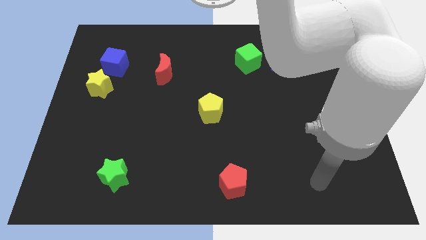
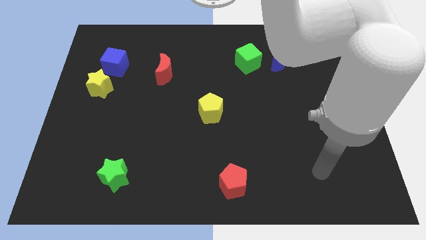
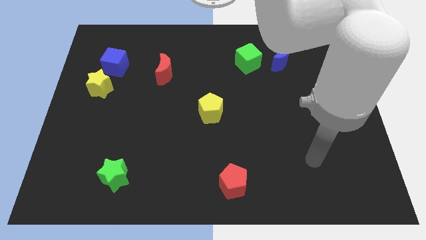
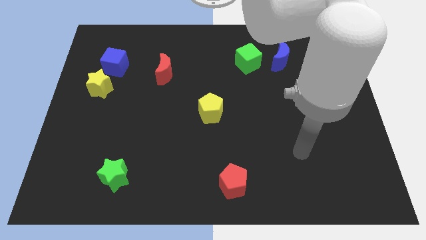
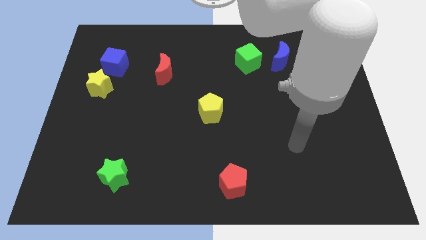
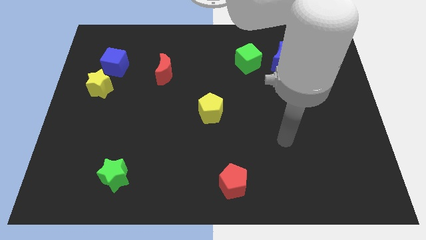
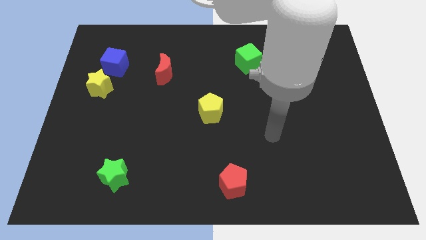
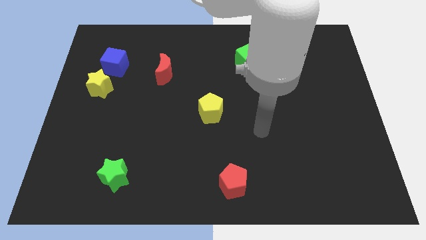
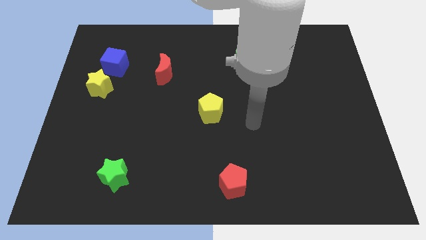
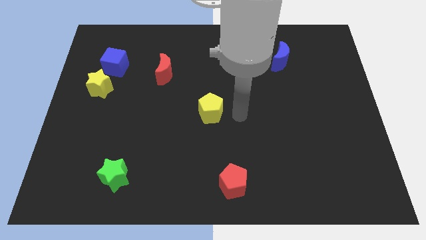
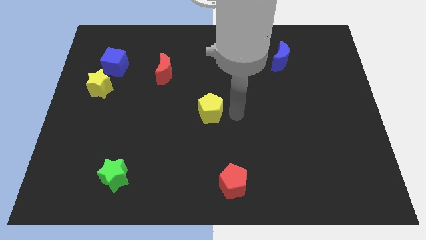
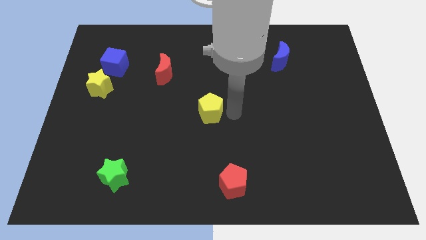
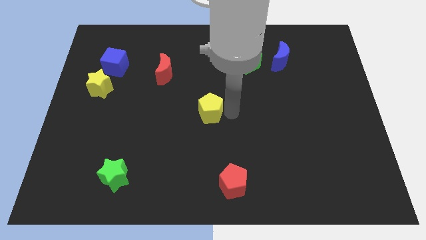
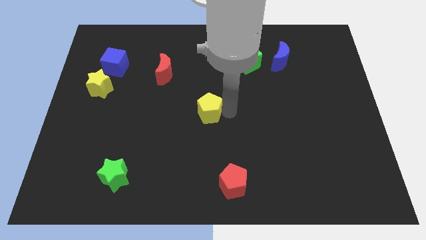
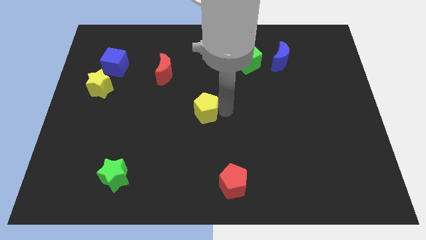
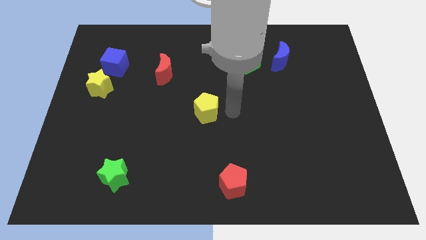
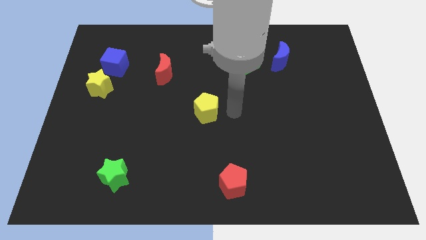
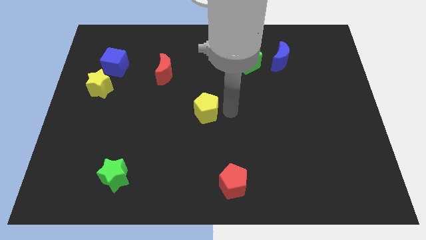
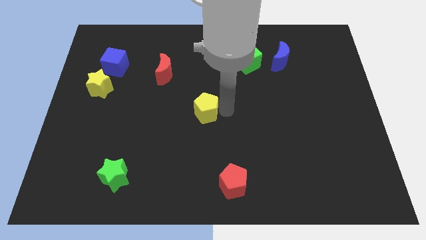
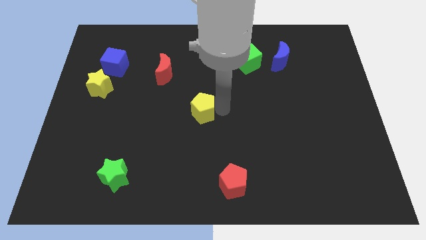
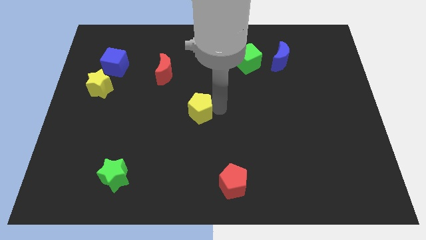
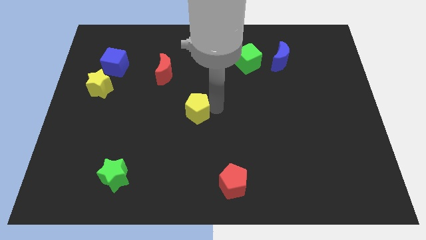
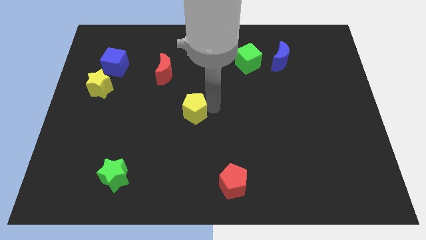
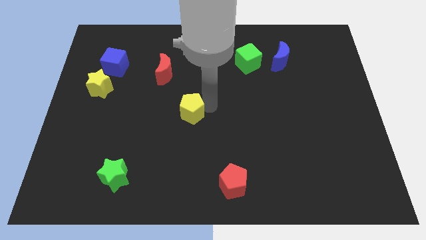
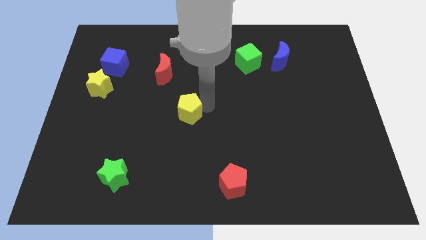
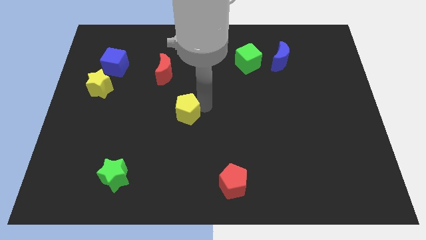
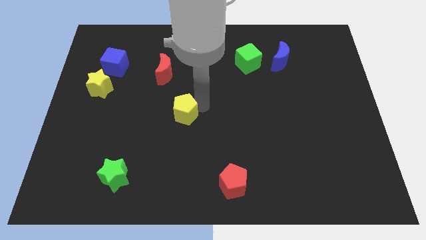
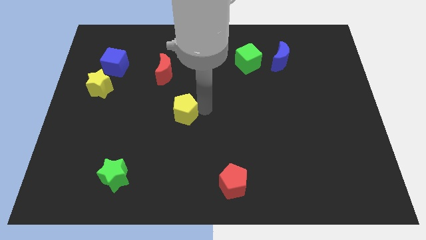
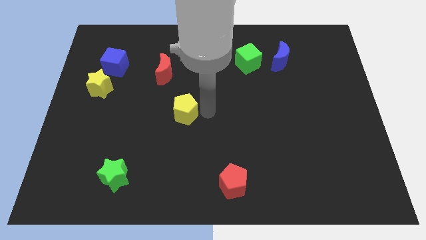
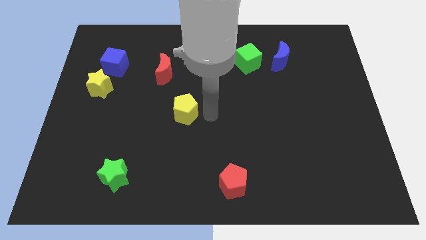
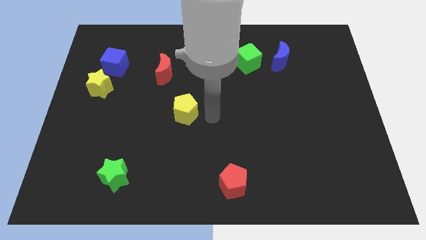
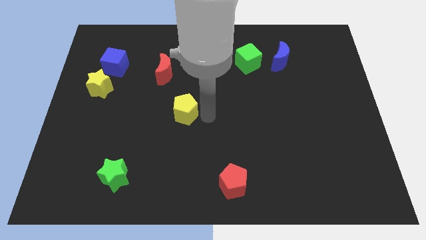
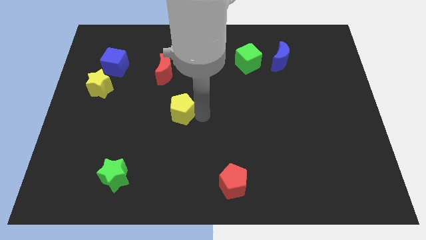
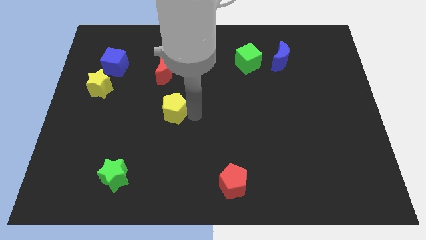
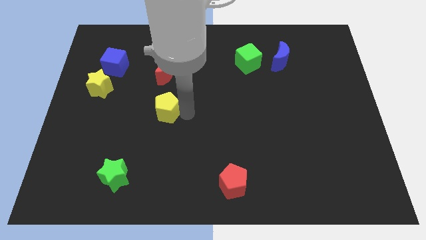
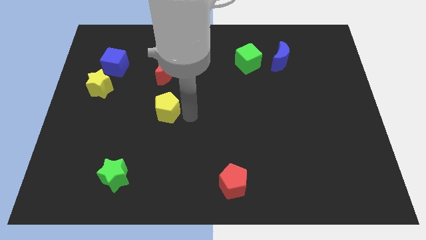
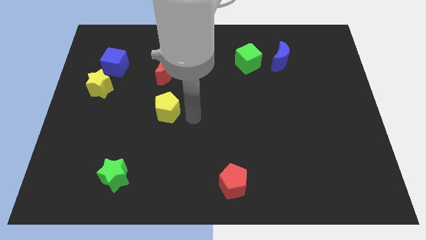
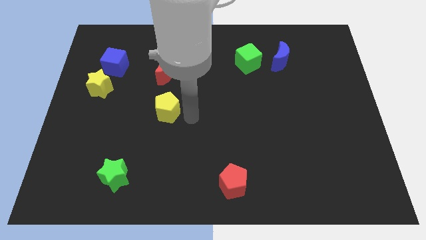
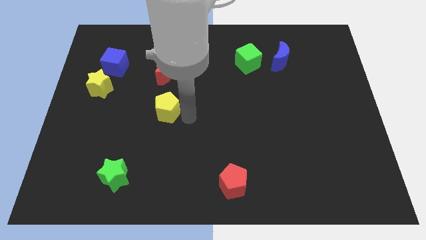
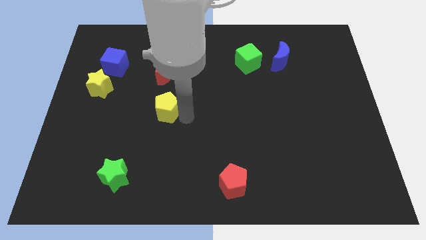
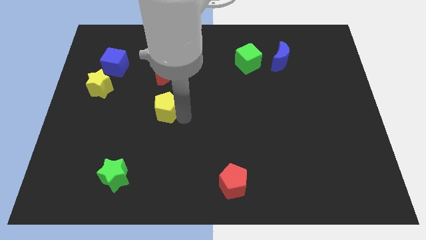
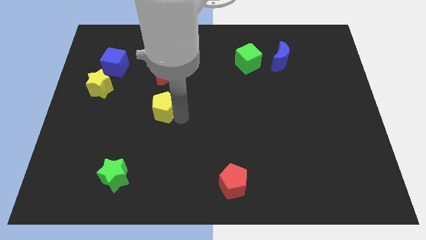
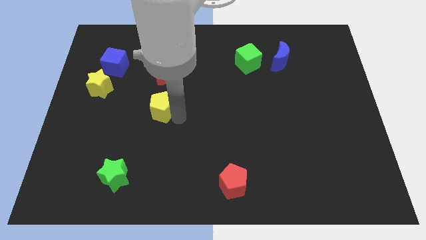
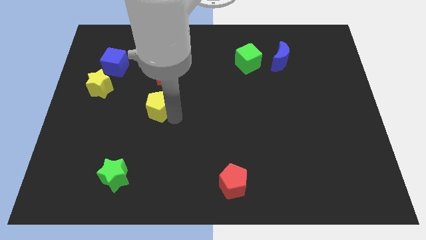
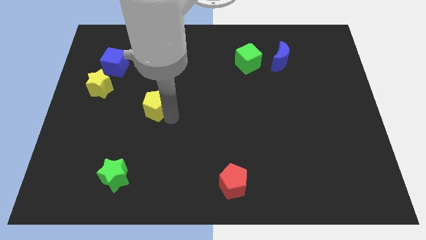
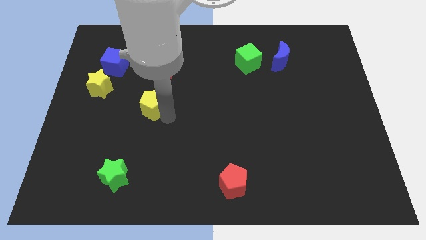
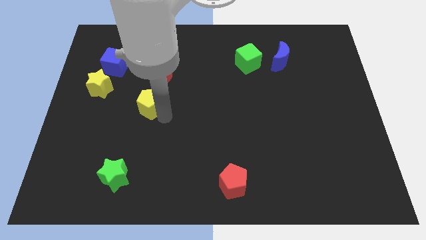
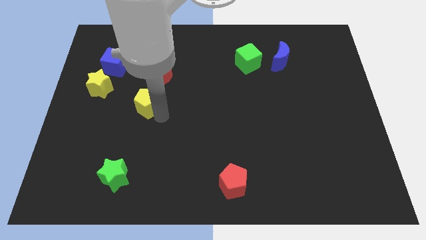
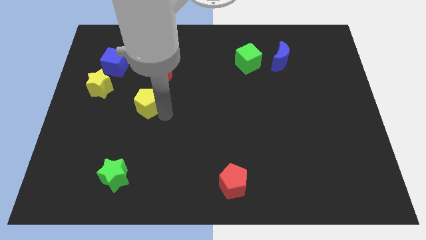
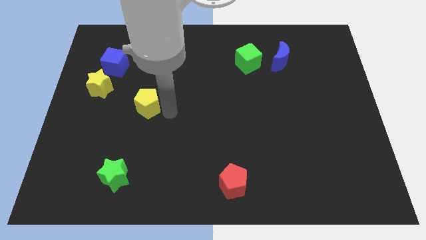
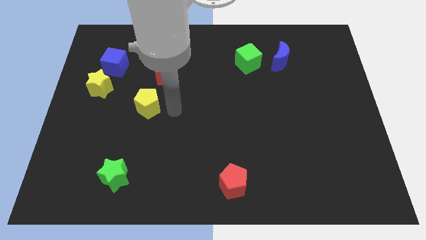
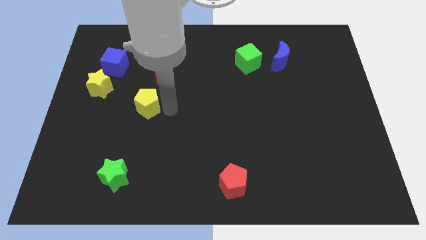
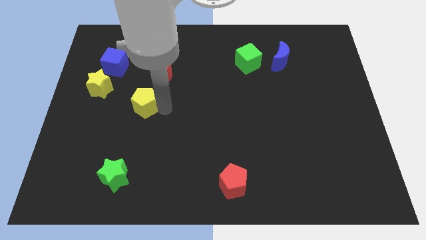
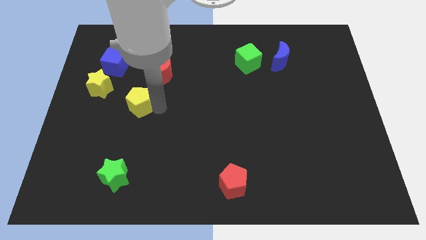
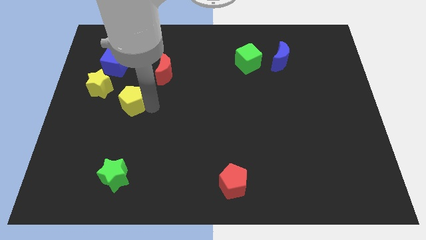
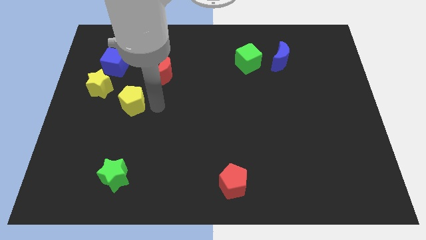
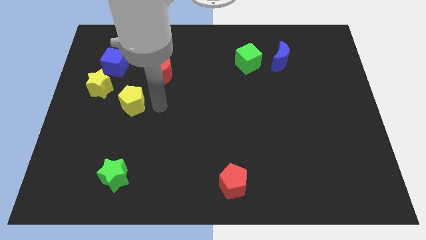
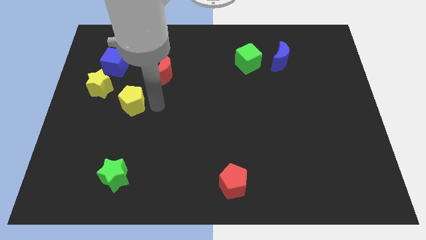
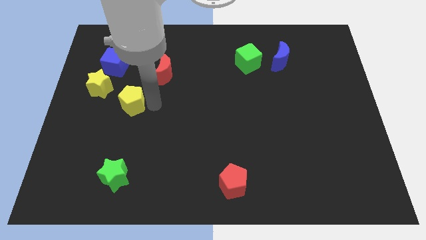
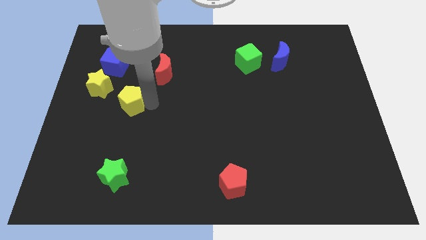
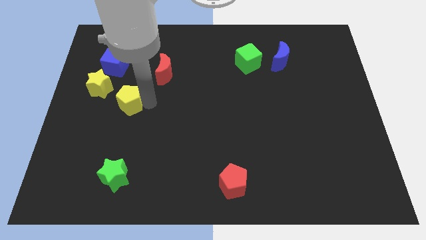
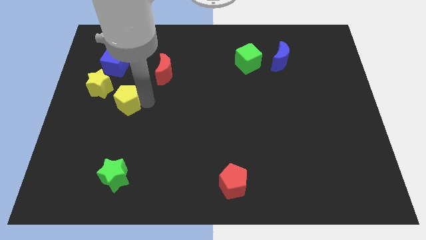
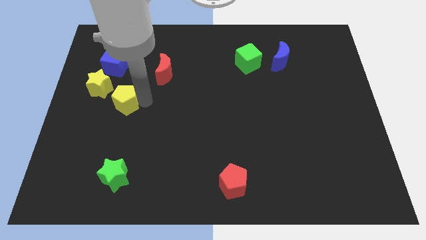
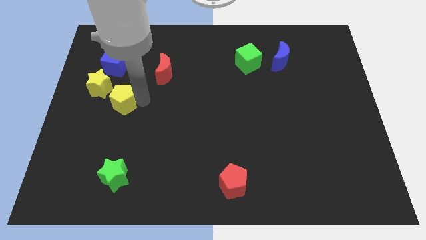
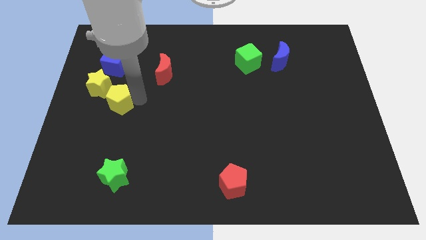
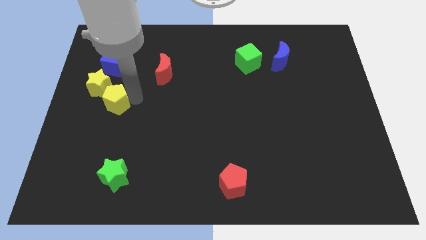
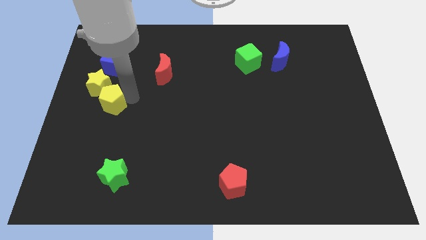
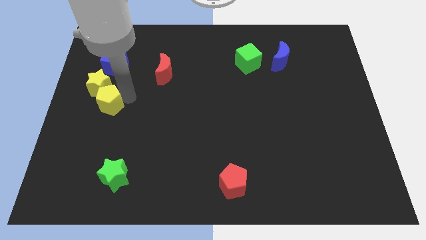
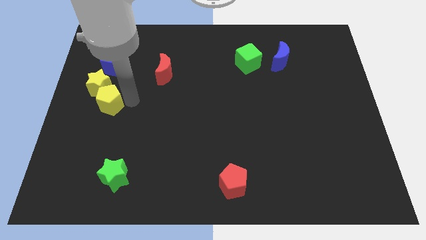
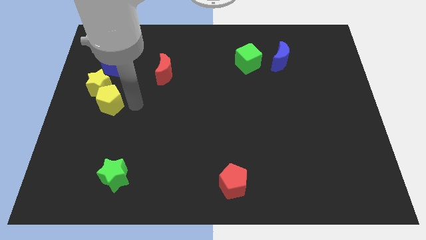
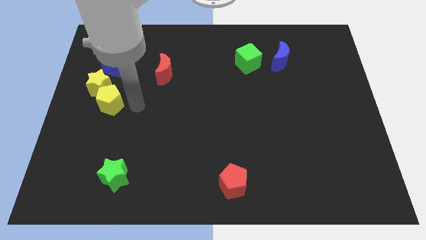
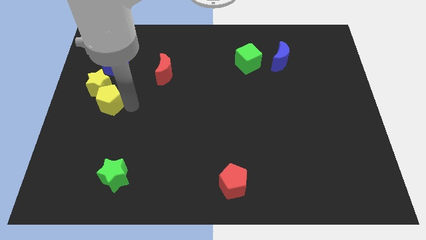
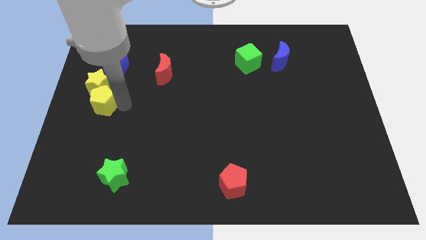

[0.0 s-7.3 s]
put the yellow pentagon to the left side of the board
